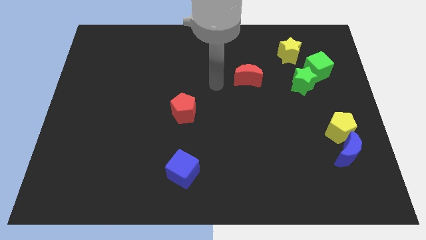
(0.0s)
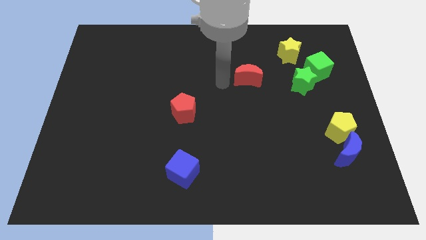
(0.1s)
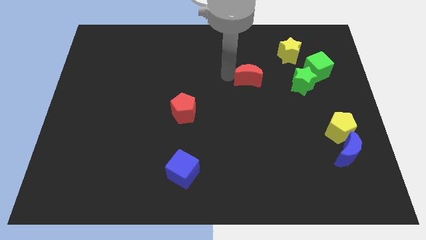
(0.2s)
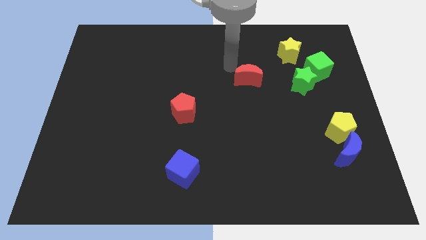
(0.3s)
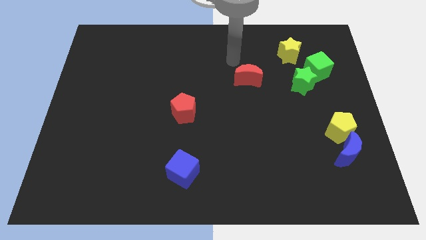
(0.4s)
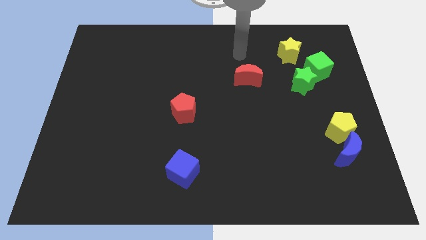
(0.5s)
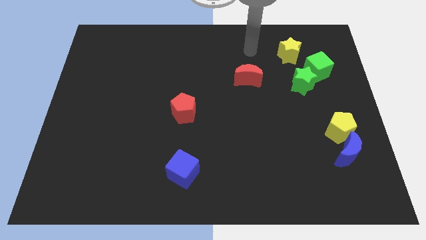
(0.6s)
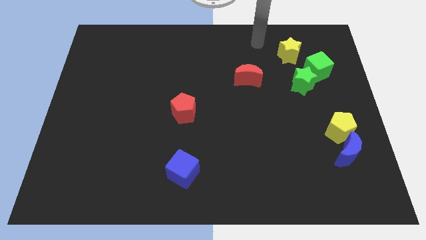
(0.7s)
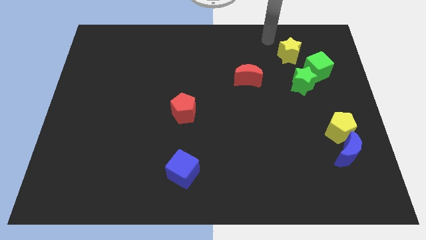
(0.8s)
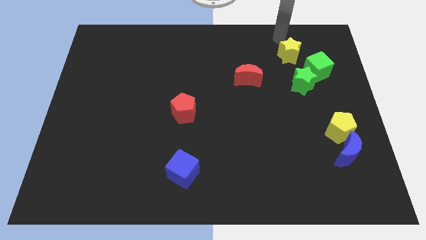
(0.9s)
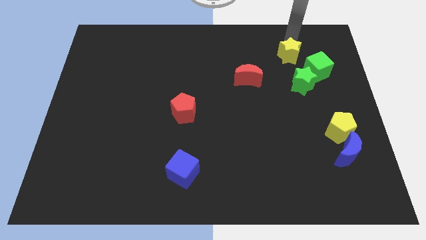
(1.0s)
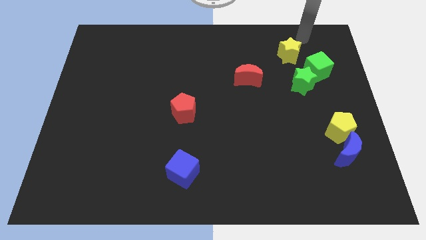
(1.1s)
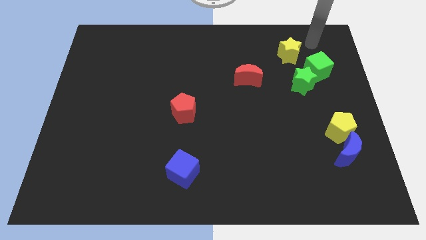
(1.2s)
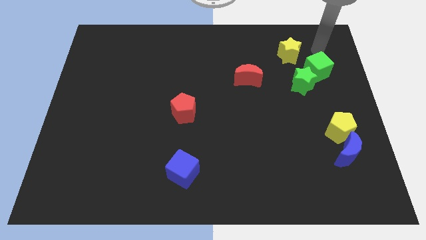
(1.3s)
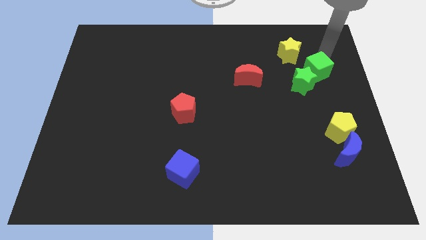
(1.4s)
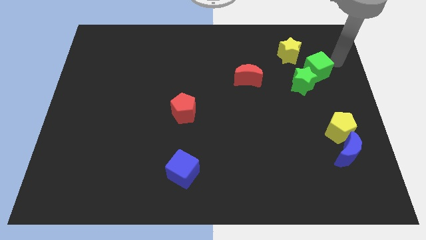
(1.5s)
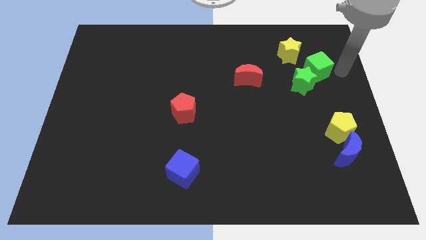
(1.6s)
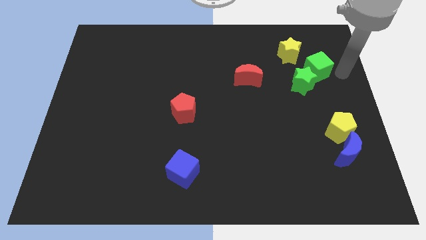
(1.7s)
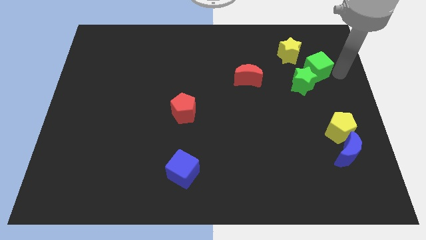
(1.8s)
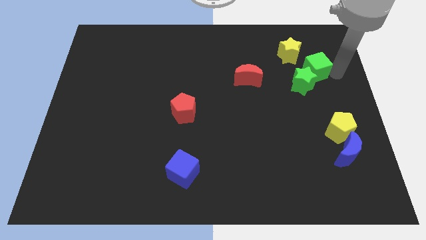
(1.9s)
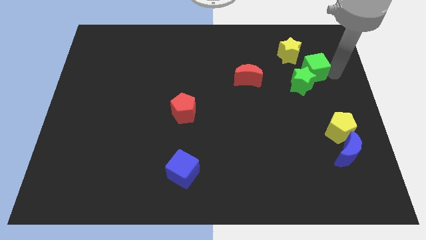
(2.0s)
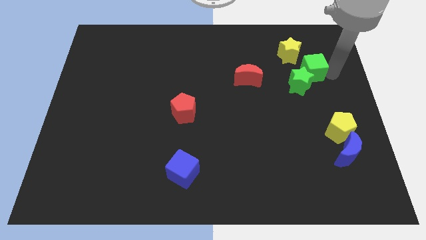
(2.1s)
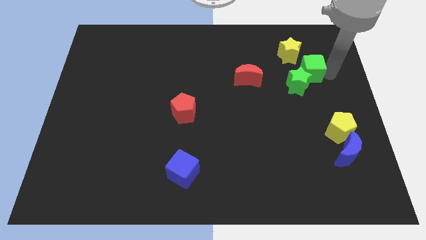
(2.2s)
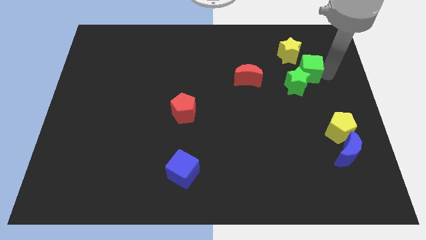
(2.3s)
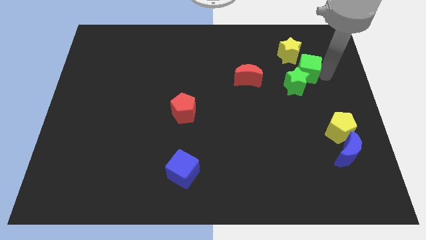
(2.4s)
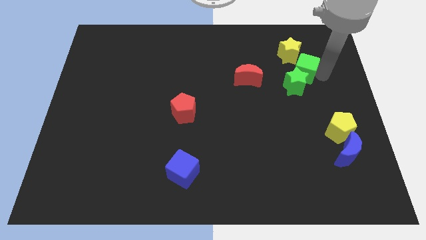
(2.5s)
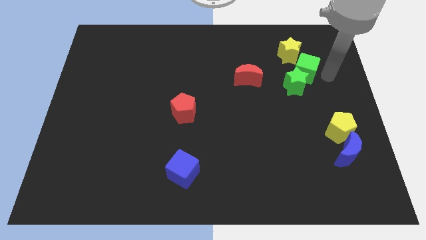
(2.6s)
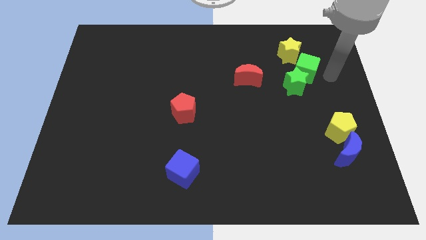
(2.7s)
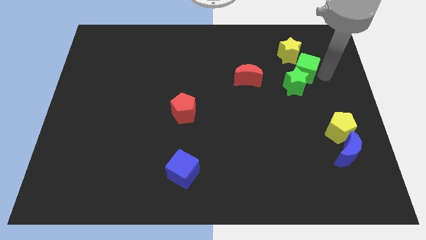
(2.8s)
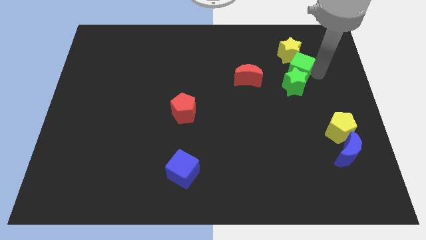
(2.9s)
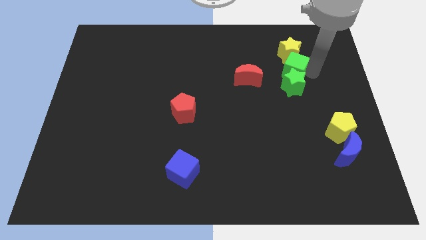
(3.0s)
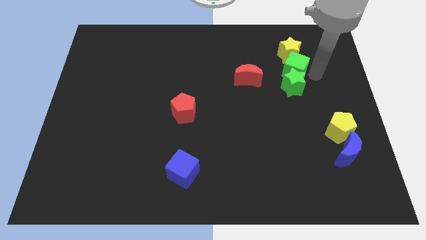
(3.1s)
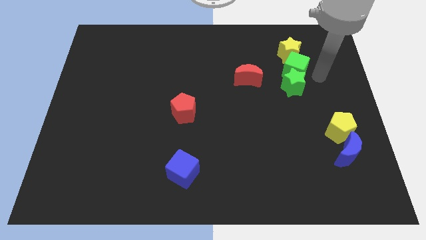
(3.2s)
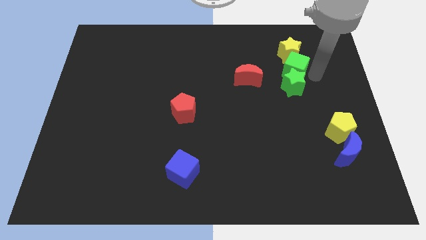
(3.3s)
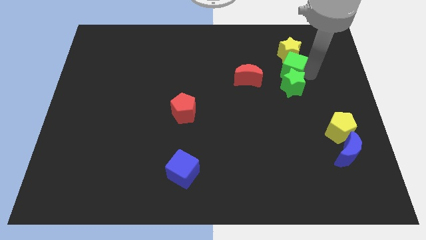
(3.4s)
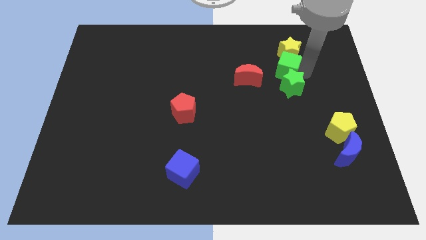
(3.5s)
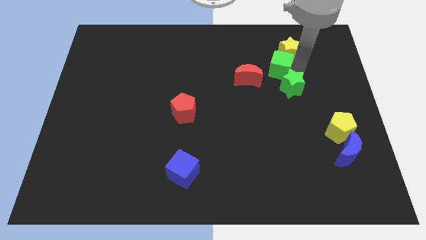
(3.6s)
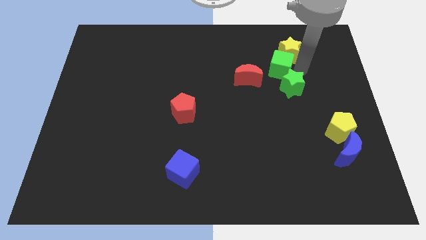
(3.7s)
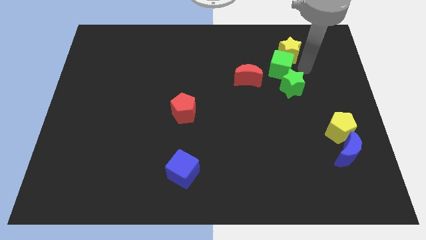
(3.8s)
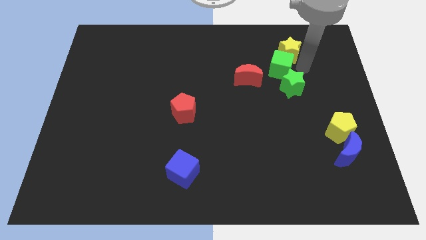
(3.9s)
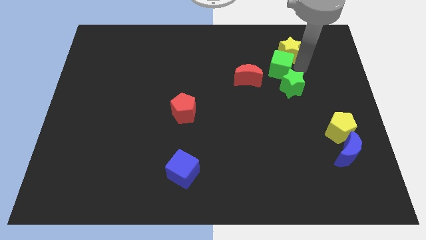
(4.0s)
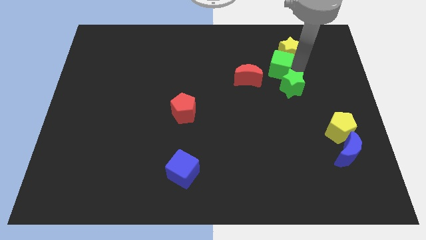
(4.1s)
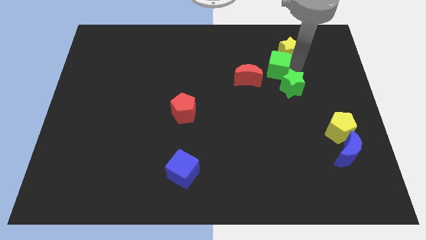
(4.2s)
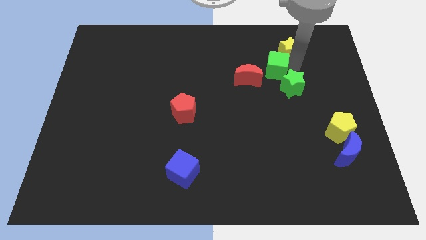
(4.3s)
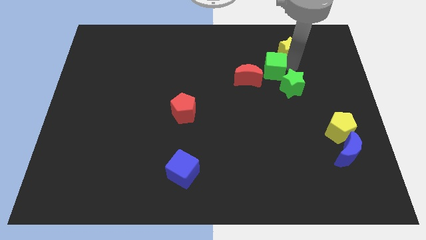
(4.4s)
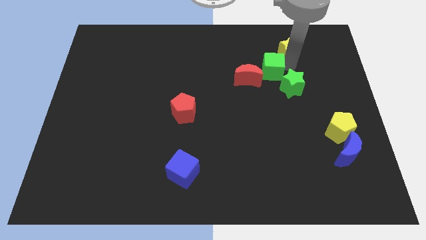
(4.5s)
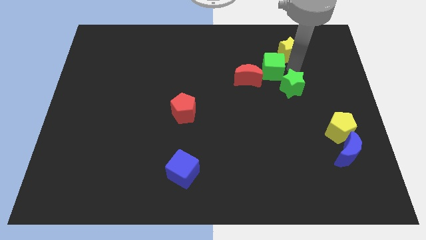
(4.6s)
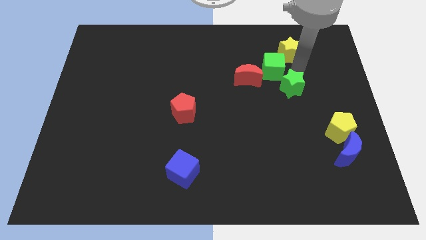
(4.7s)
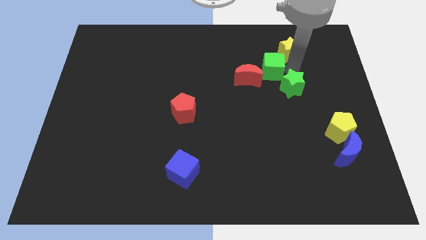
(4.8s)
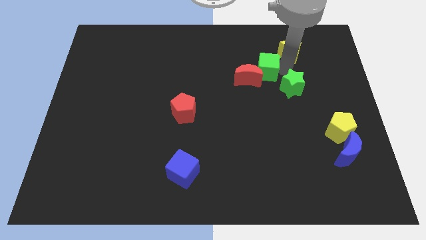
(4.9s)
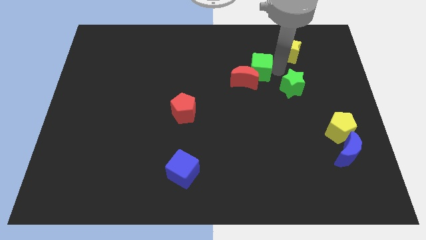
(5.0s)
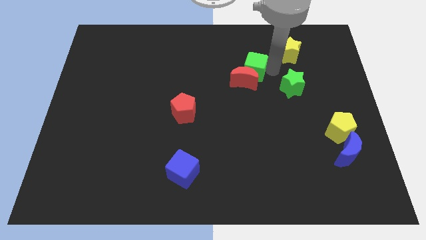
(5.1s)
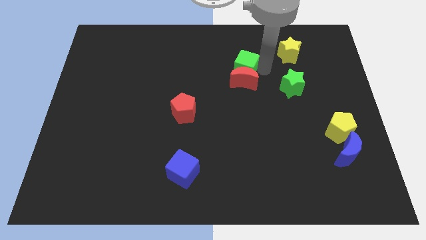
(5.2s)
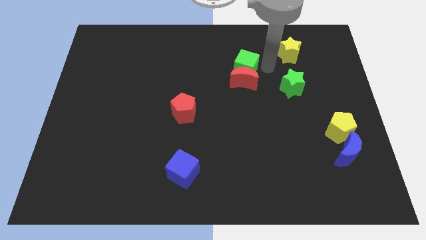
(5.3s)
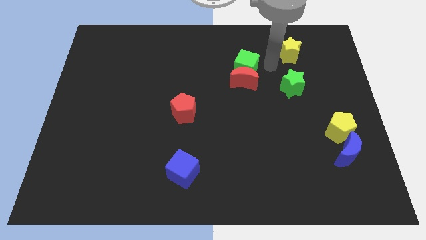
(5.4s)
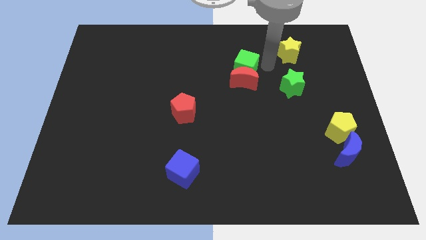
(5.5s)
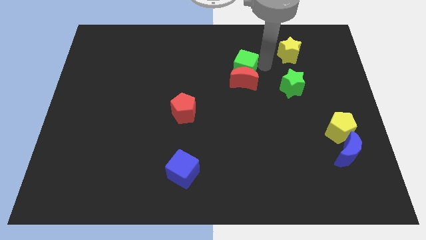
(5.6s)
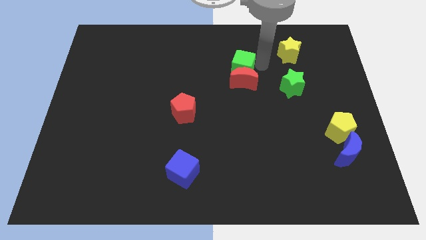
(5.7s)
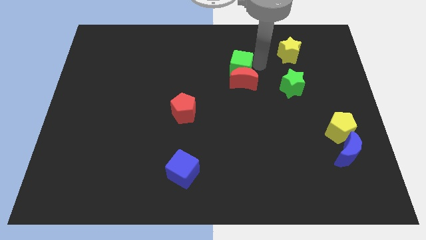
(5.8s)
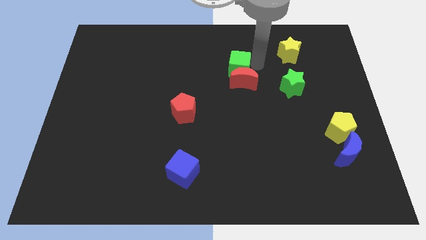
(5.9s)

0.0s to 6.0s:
slide the green cube to the left

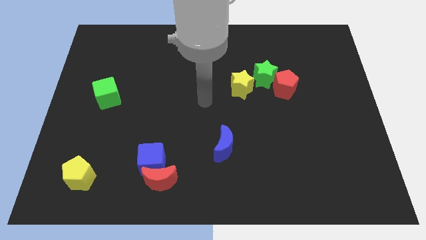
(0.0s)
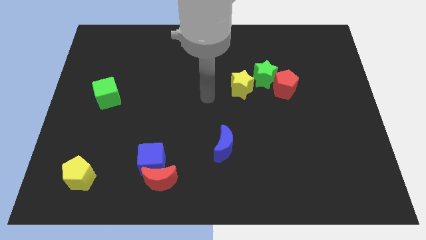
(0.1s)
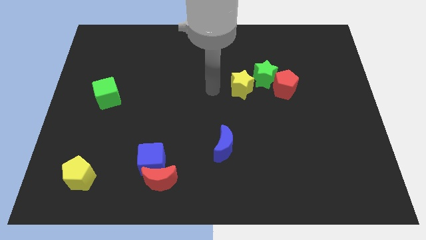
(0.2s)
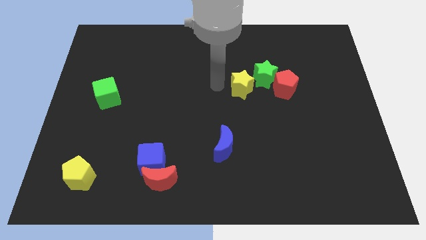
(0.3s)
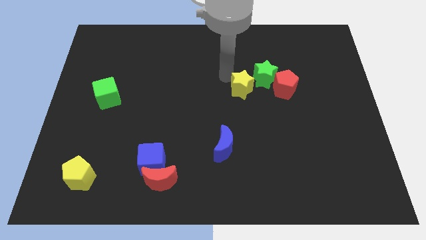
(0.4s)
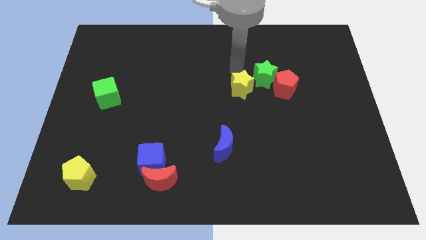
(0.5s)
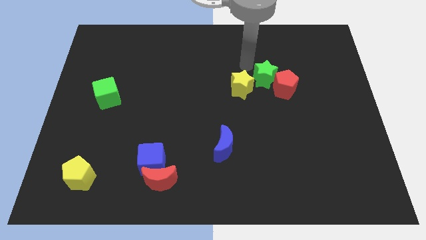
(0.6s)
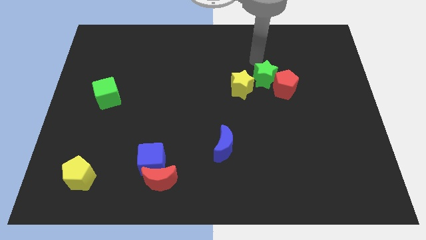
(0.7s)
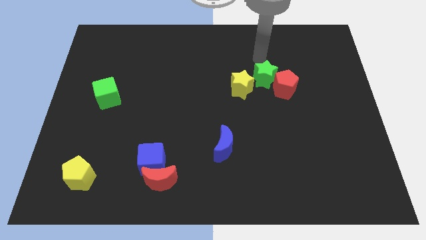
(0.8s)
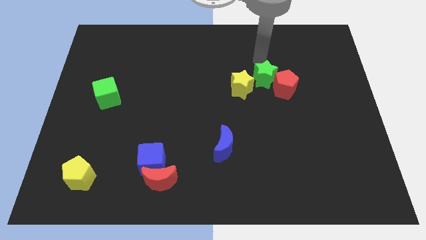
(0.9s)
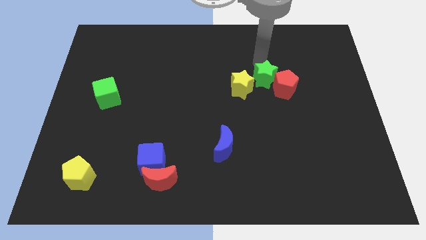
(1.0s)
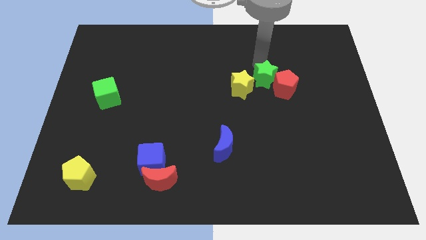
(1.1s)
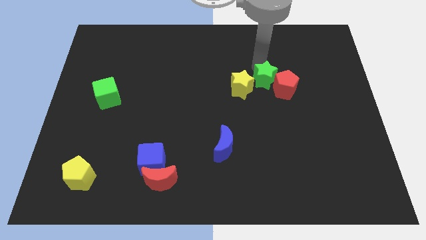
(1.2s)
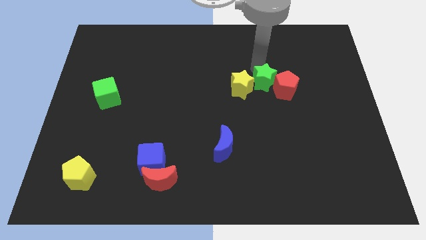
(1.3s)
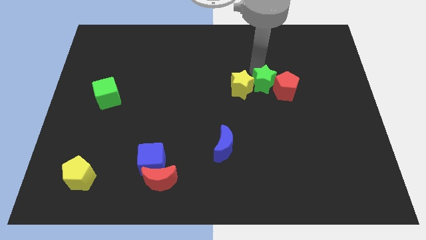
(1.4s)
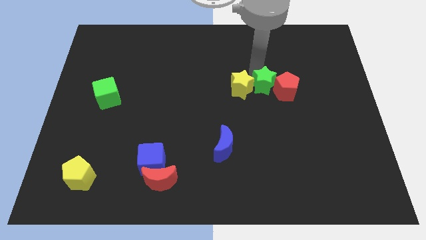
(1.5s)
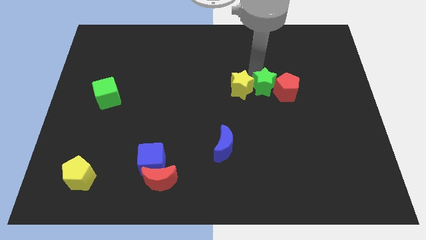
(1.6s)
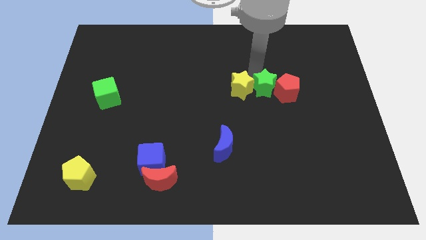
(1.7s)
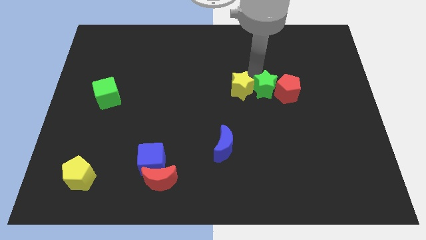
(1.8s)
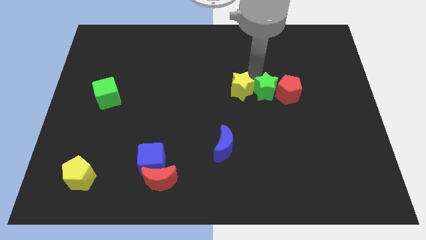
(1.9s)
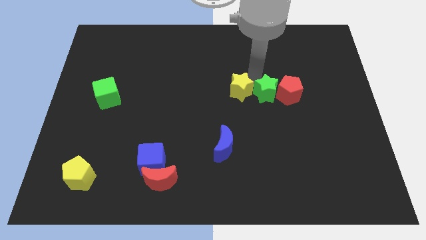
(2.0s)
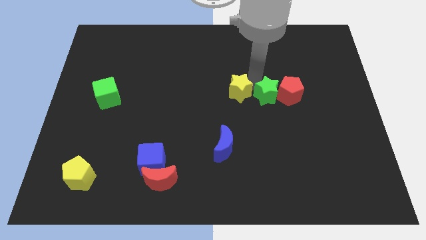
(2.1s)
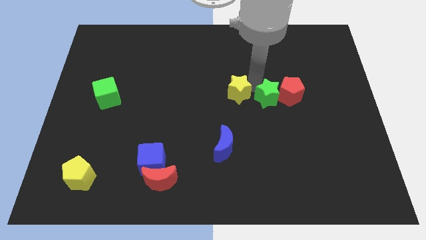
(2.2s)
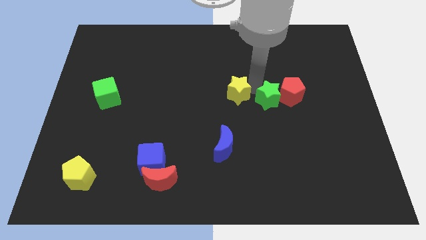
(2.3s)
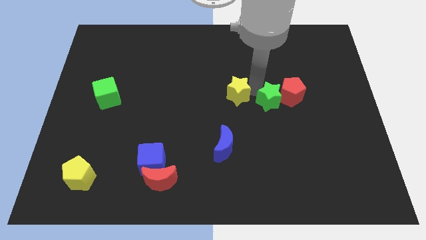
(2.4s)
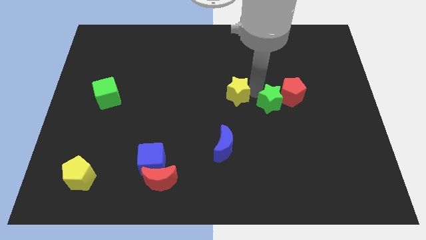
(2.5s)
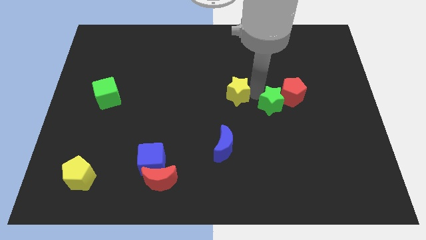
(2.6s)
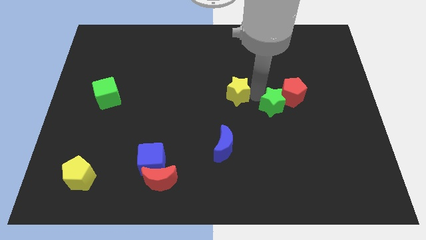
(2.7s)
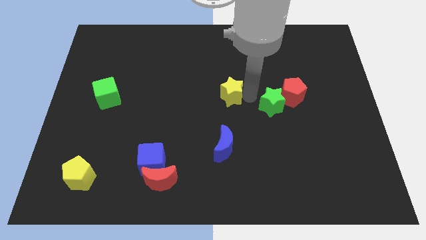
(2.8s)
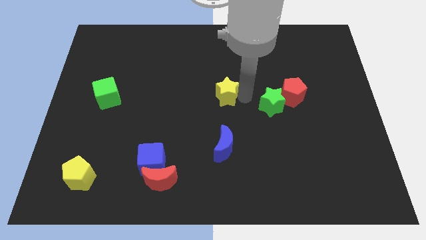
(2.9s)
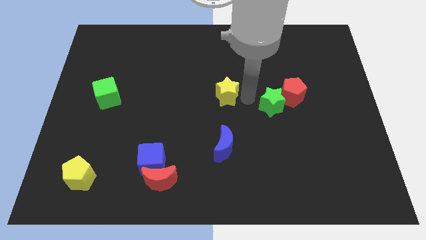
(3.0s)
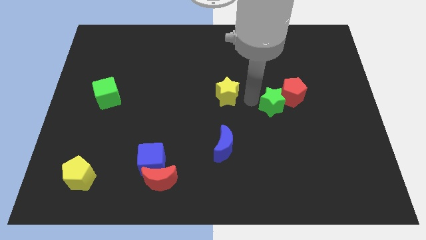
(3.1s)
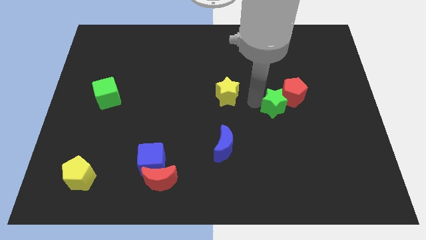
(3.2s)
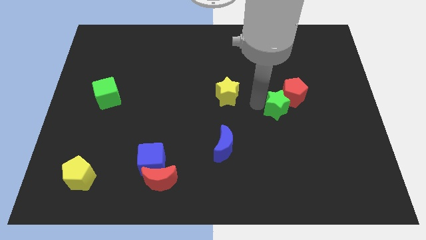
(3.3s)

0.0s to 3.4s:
slide the green star a little diagonally down and to the right
